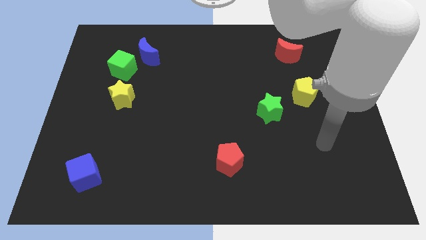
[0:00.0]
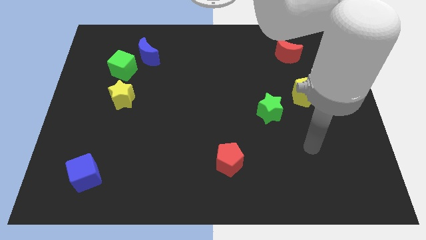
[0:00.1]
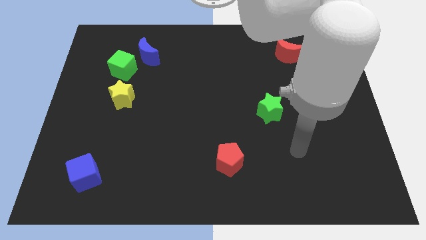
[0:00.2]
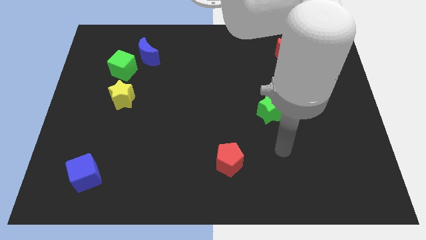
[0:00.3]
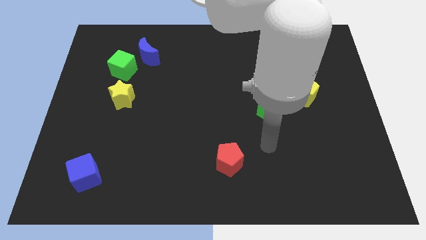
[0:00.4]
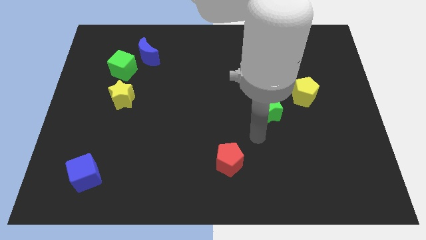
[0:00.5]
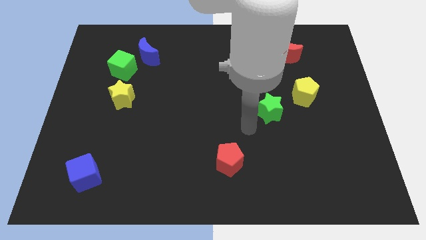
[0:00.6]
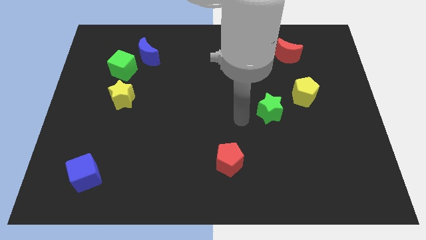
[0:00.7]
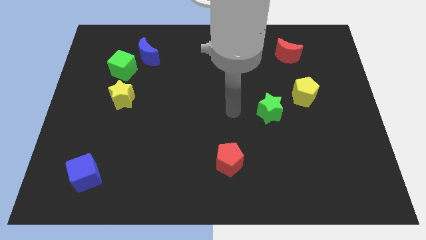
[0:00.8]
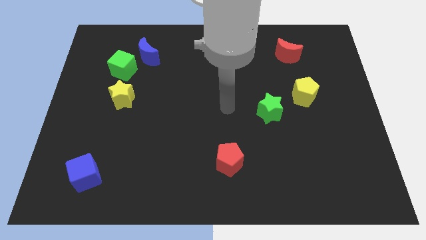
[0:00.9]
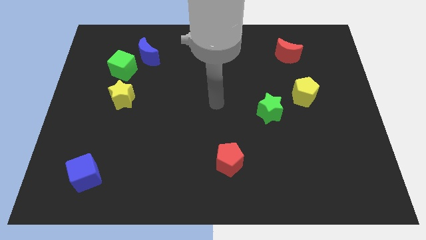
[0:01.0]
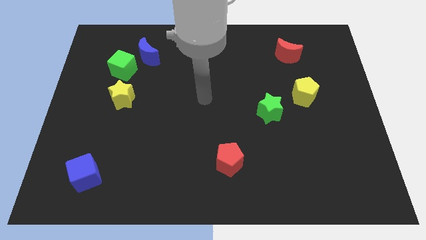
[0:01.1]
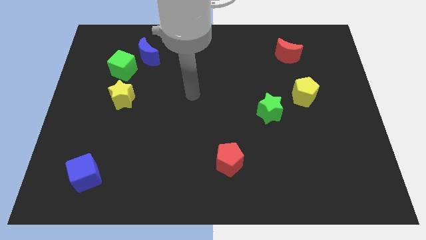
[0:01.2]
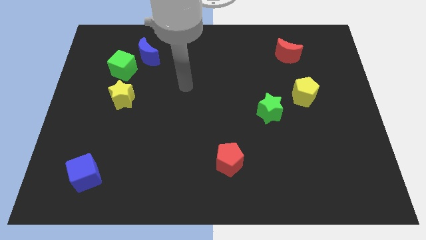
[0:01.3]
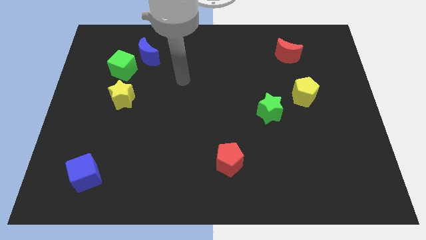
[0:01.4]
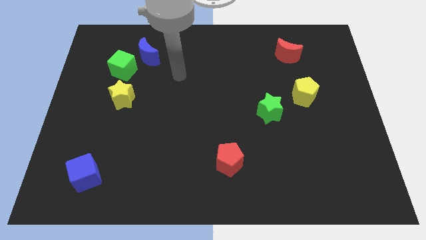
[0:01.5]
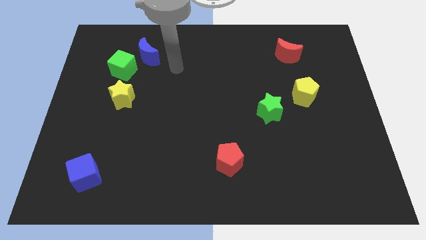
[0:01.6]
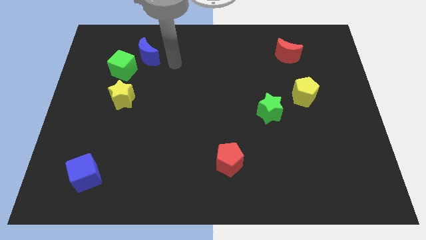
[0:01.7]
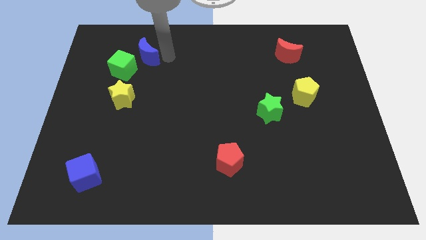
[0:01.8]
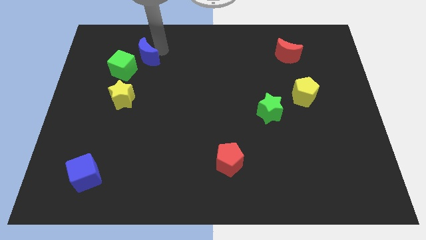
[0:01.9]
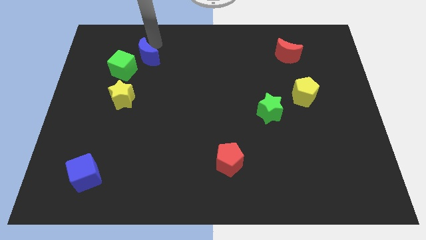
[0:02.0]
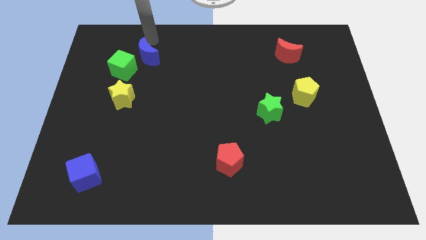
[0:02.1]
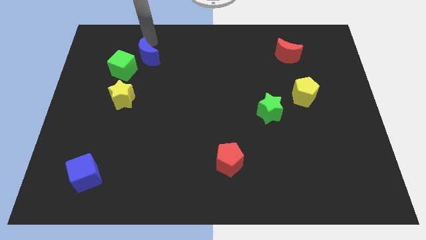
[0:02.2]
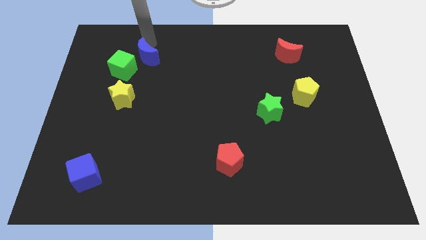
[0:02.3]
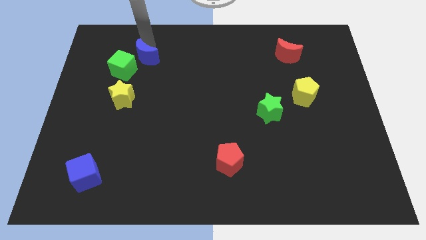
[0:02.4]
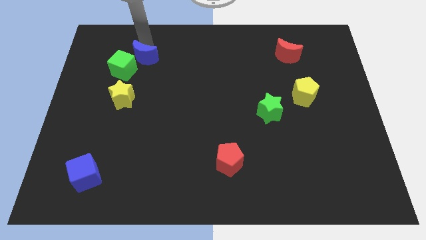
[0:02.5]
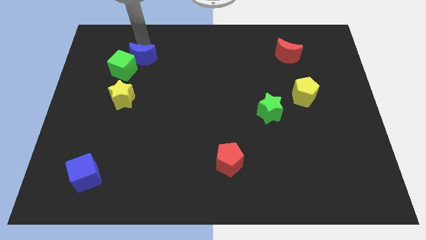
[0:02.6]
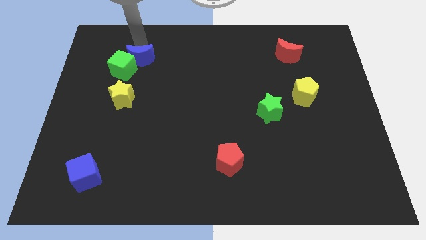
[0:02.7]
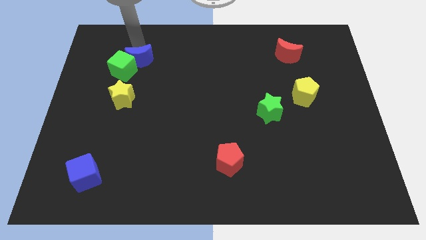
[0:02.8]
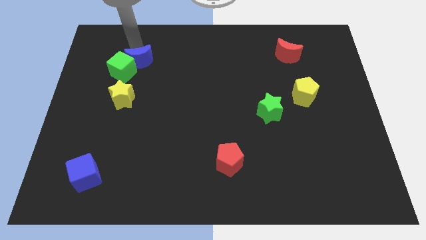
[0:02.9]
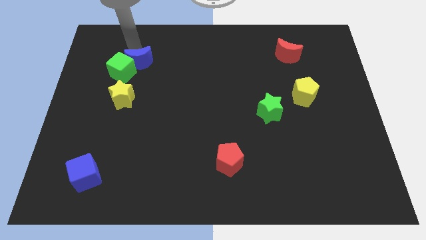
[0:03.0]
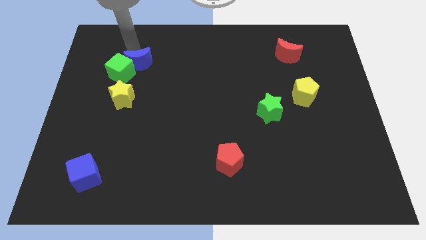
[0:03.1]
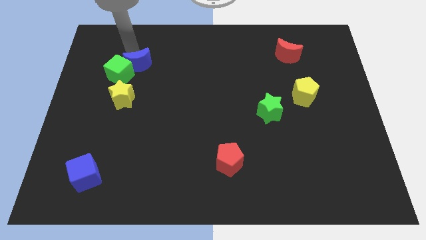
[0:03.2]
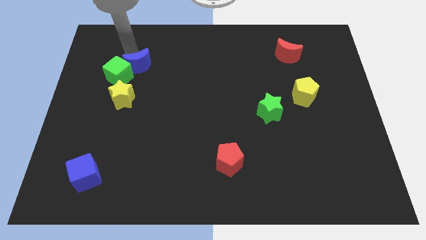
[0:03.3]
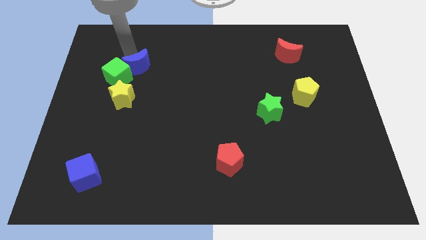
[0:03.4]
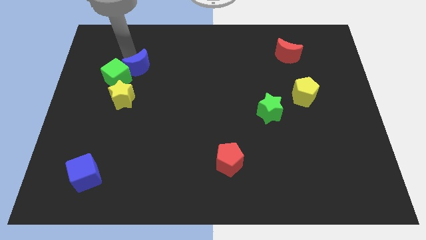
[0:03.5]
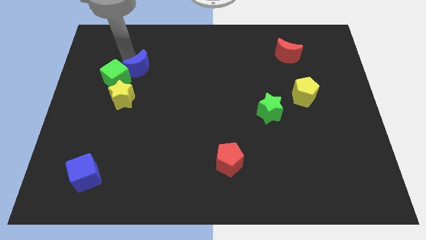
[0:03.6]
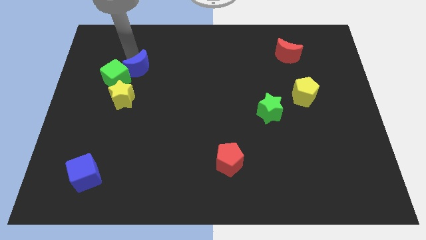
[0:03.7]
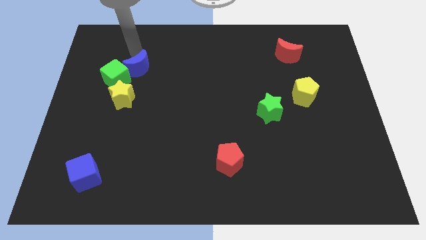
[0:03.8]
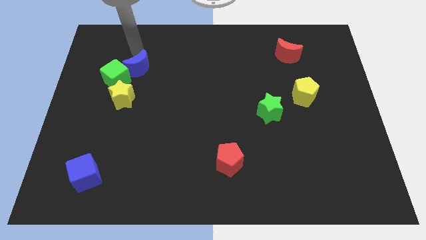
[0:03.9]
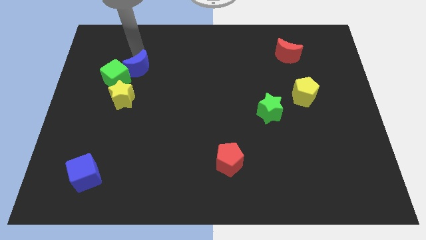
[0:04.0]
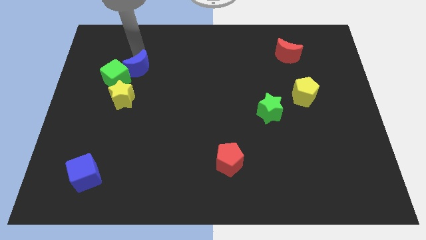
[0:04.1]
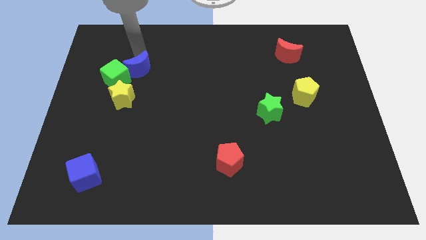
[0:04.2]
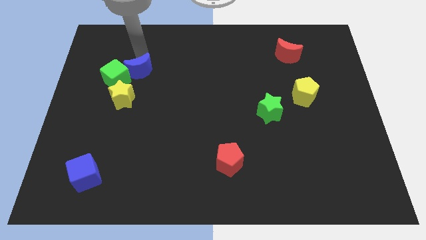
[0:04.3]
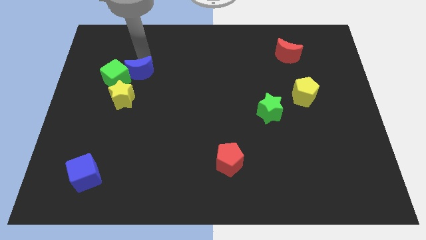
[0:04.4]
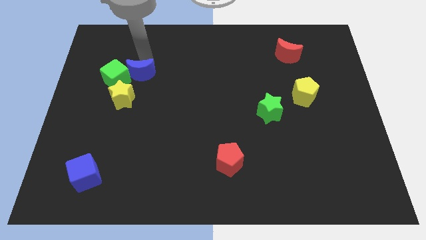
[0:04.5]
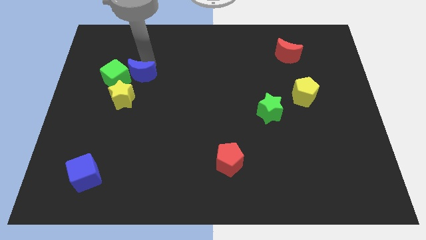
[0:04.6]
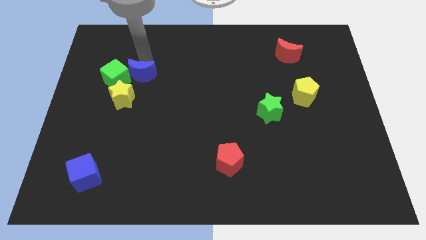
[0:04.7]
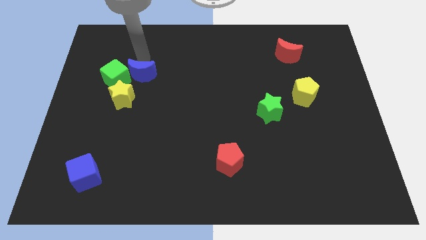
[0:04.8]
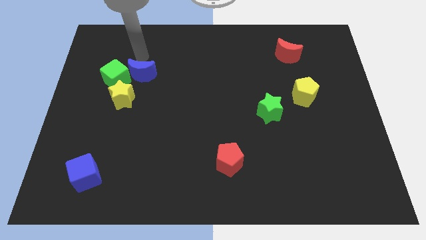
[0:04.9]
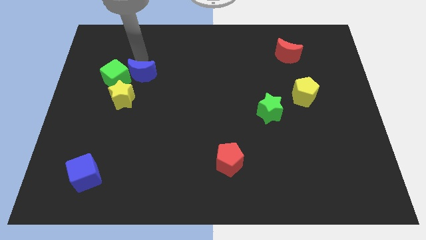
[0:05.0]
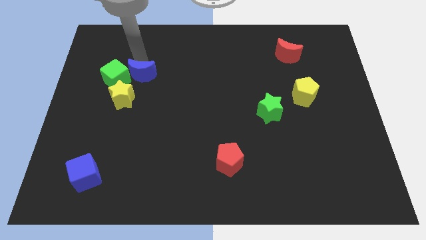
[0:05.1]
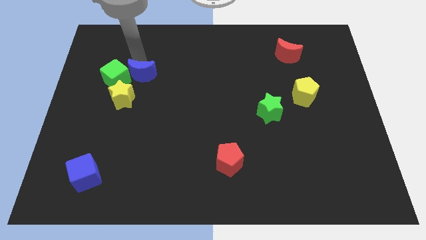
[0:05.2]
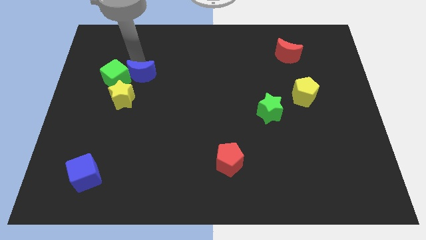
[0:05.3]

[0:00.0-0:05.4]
move the blue moon a bit down

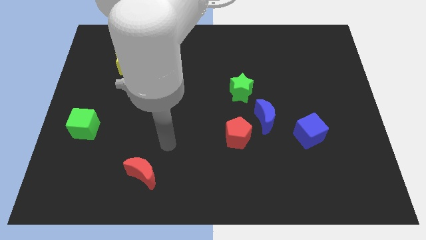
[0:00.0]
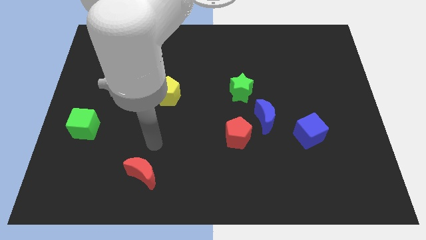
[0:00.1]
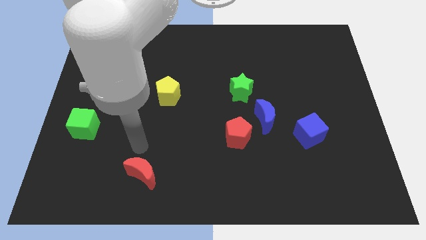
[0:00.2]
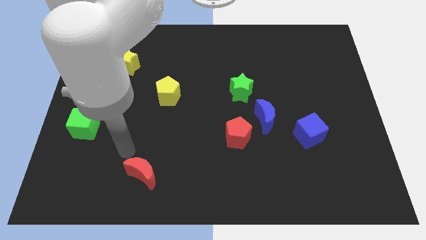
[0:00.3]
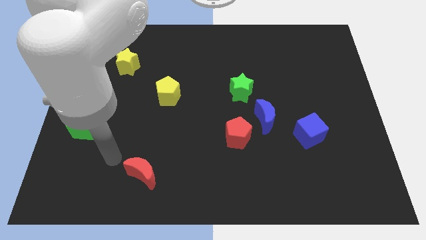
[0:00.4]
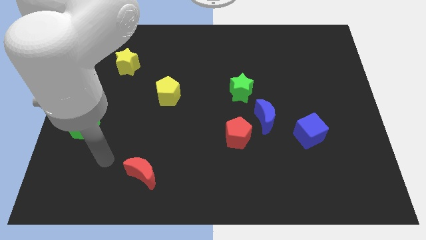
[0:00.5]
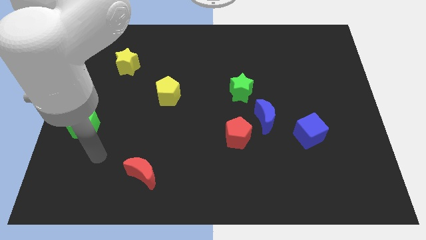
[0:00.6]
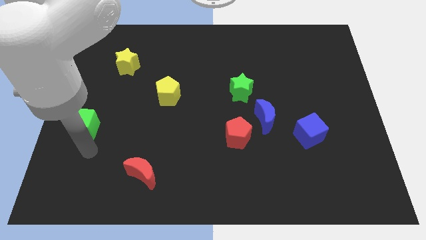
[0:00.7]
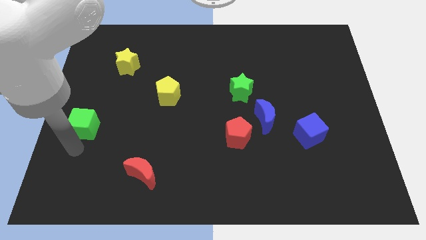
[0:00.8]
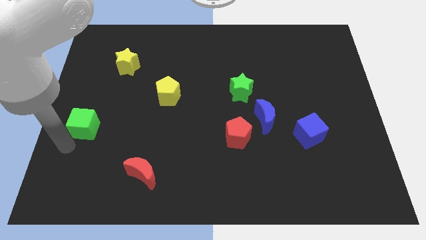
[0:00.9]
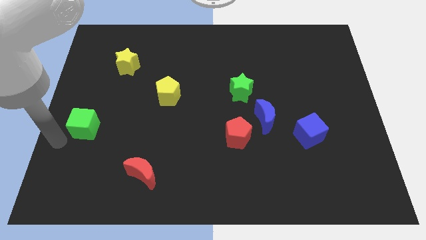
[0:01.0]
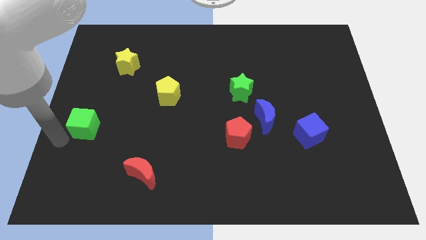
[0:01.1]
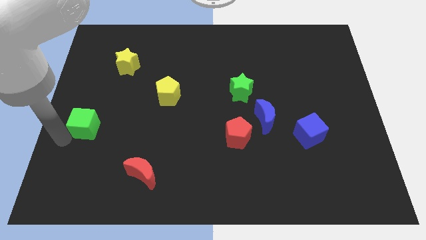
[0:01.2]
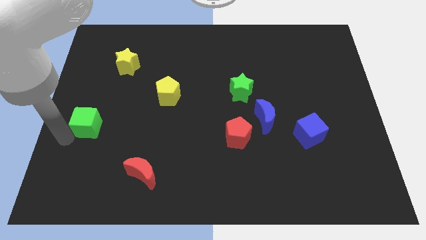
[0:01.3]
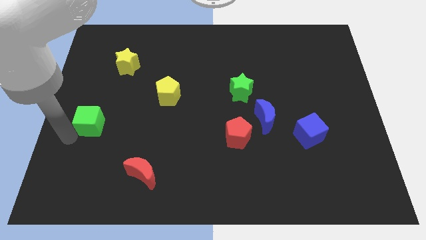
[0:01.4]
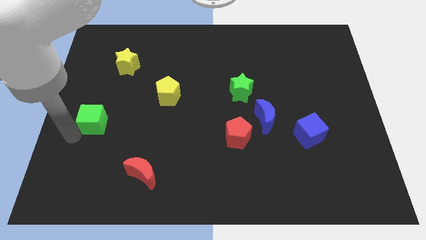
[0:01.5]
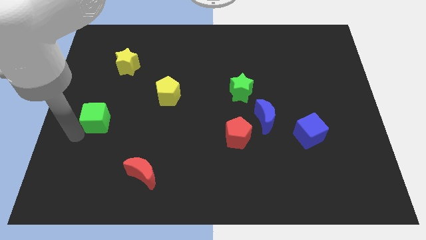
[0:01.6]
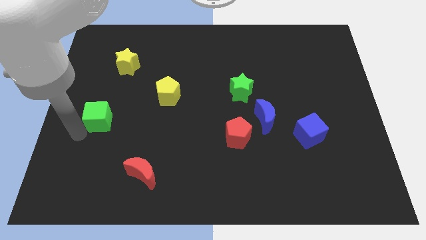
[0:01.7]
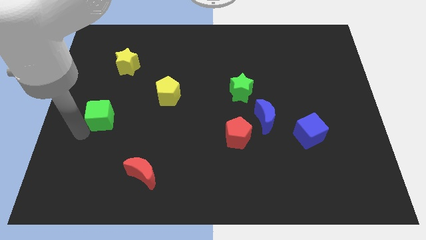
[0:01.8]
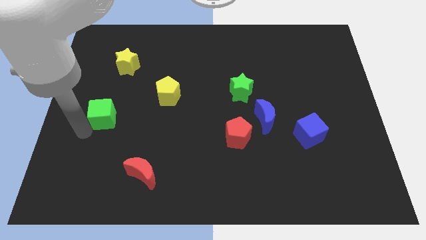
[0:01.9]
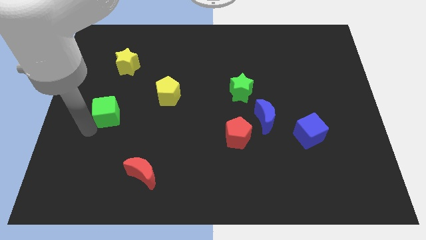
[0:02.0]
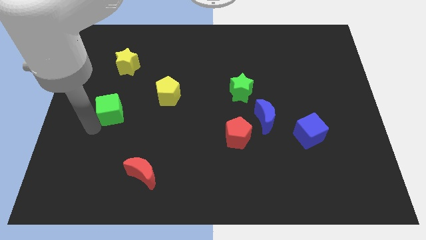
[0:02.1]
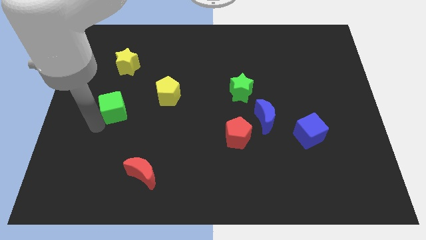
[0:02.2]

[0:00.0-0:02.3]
slide the green cube up and to the right diagonally a bit

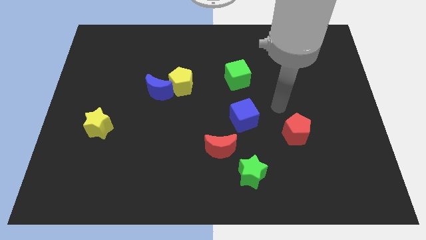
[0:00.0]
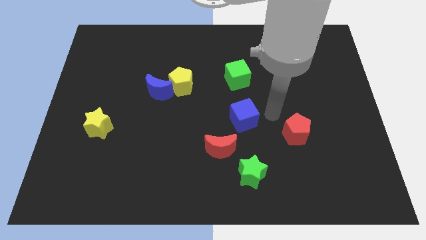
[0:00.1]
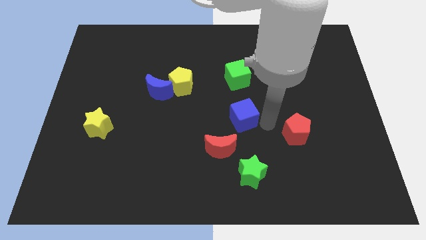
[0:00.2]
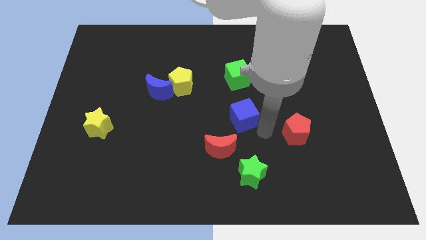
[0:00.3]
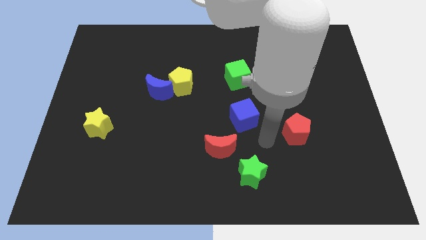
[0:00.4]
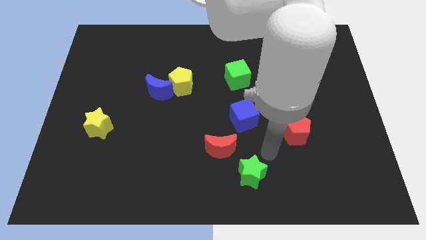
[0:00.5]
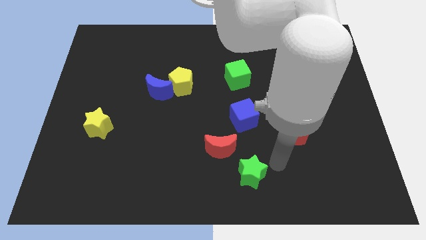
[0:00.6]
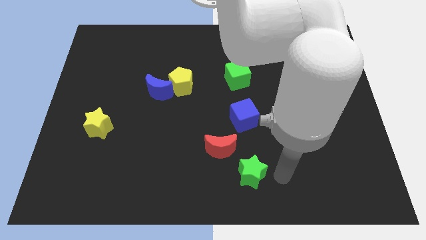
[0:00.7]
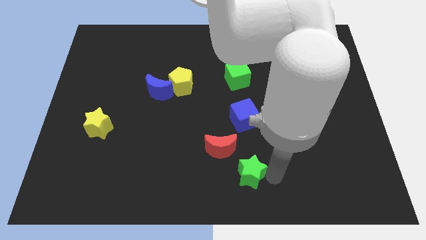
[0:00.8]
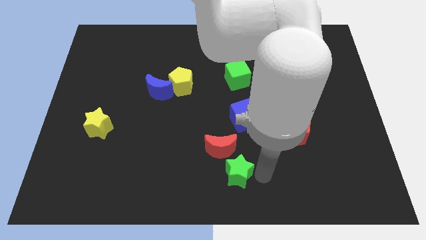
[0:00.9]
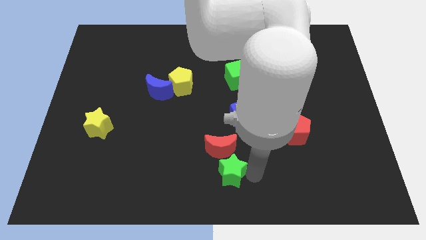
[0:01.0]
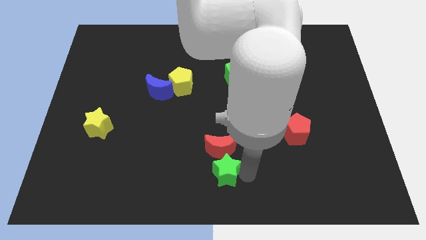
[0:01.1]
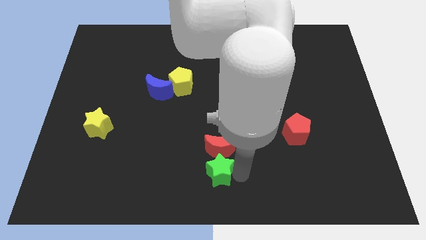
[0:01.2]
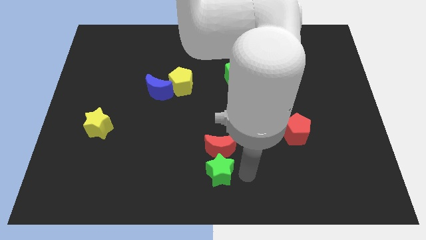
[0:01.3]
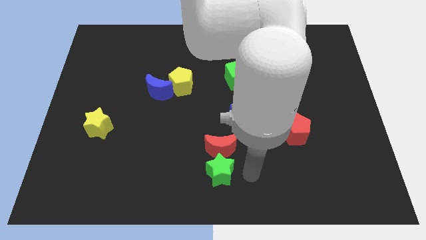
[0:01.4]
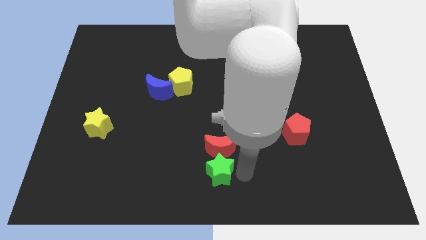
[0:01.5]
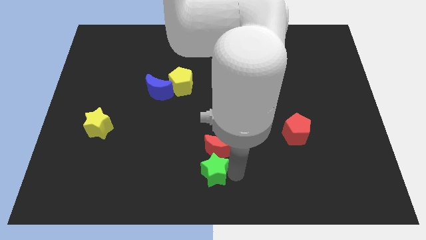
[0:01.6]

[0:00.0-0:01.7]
move the green star left a little
